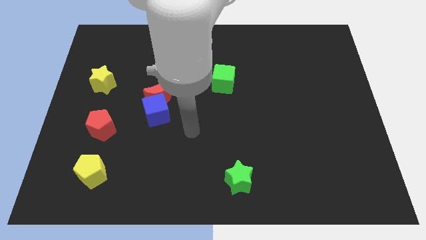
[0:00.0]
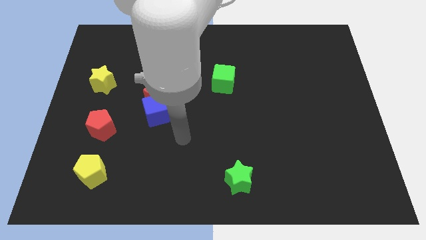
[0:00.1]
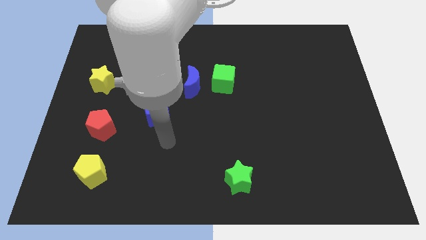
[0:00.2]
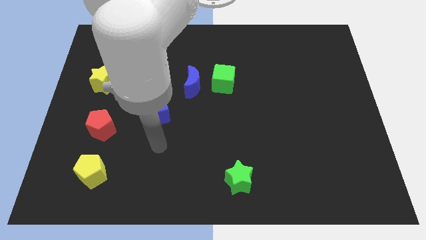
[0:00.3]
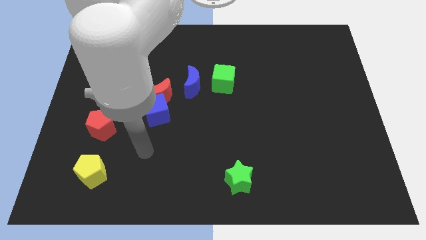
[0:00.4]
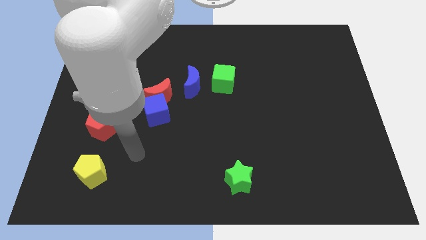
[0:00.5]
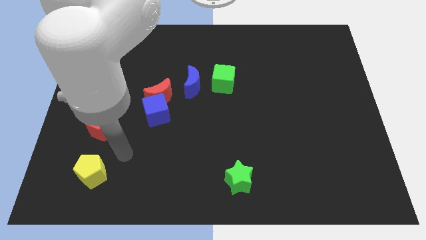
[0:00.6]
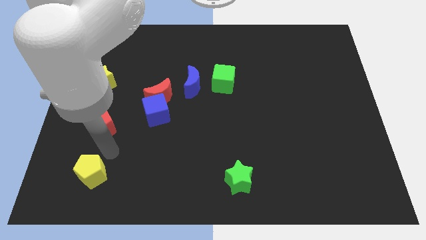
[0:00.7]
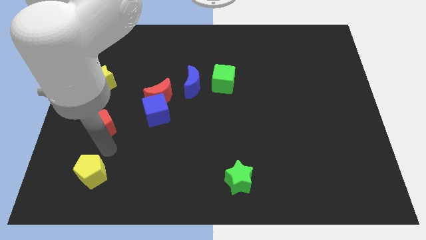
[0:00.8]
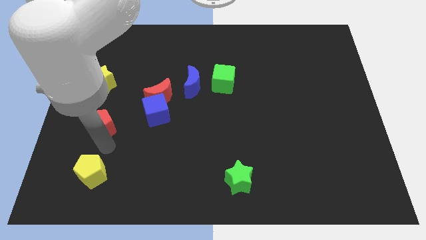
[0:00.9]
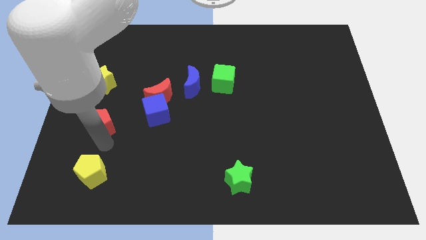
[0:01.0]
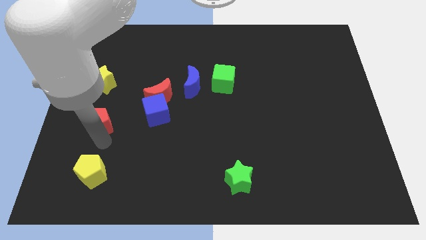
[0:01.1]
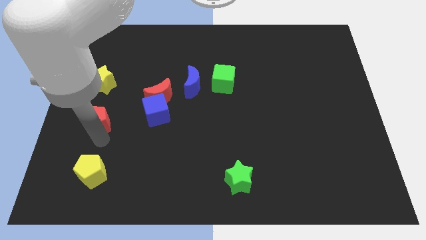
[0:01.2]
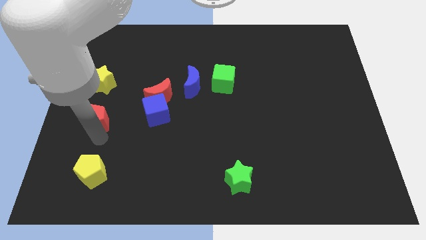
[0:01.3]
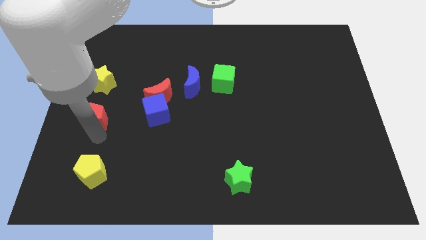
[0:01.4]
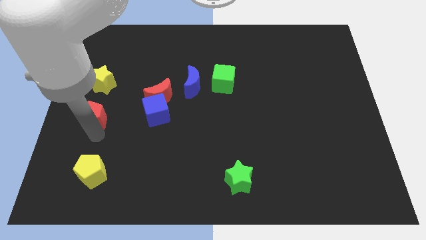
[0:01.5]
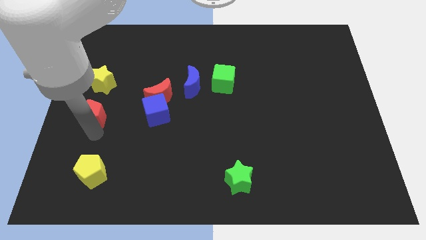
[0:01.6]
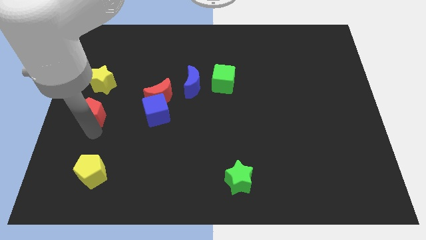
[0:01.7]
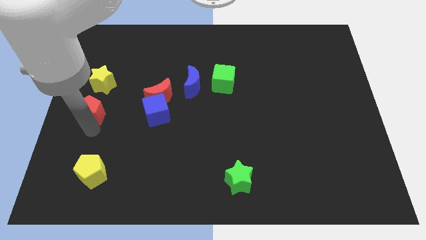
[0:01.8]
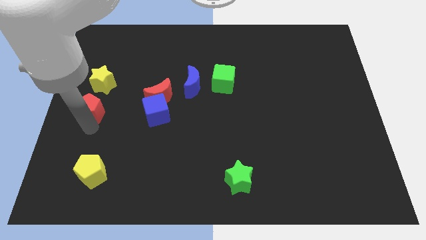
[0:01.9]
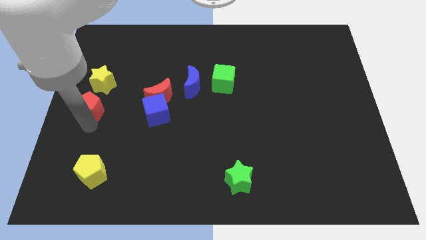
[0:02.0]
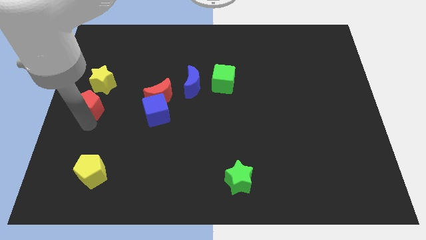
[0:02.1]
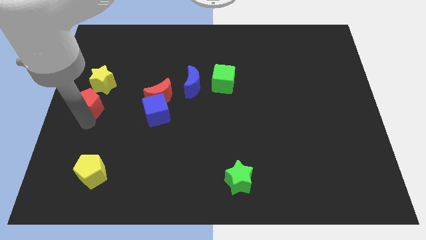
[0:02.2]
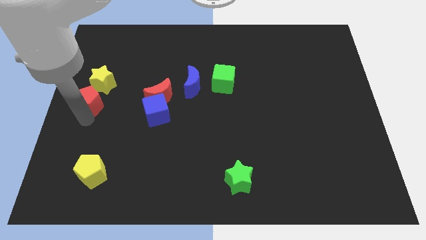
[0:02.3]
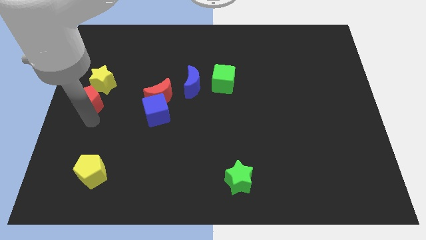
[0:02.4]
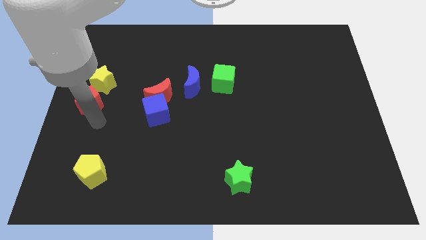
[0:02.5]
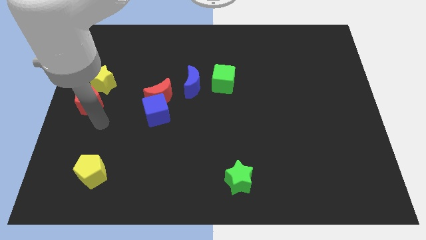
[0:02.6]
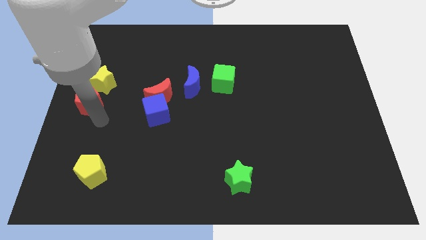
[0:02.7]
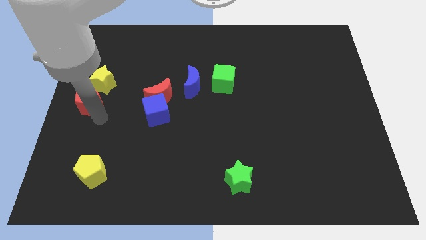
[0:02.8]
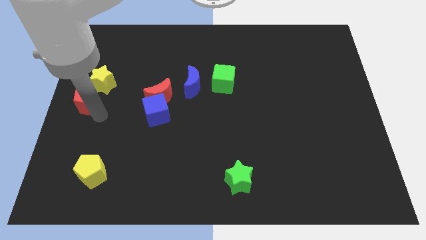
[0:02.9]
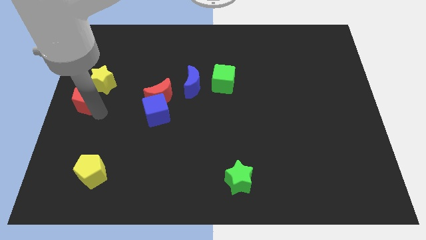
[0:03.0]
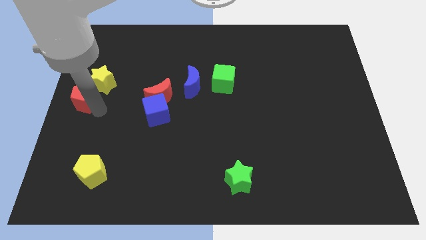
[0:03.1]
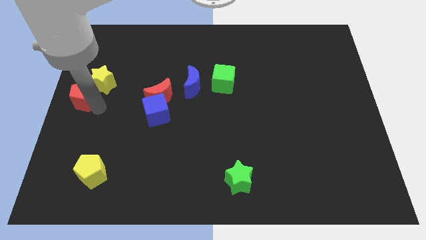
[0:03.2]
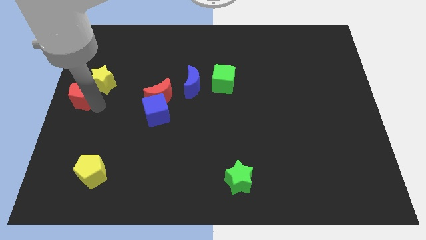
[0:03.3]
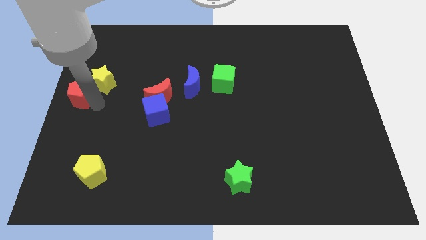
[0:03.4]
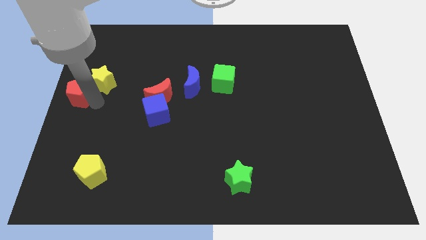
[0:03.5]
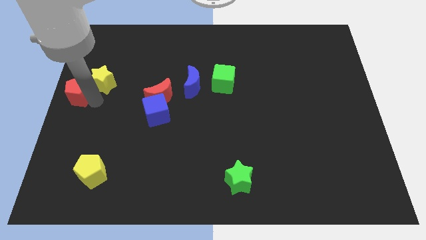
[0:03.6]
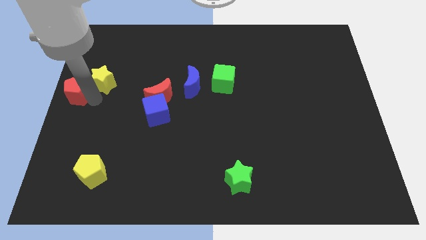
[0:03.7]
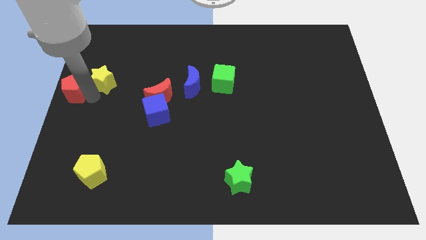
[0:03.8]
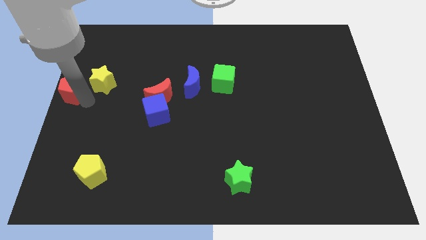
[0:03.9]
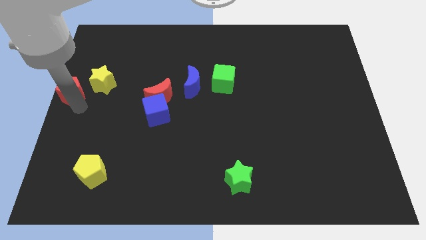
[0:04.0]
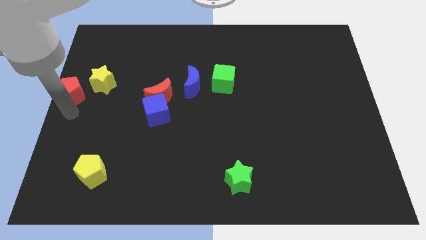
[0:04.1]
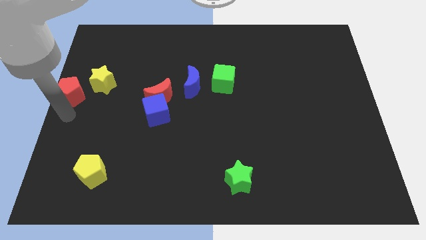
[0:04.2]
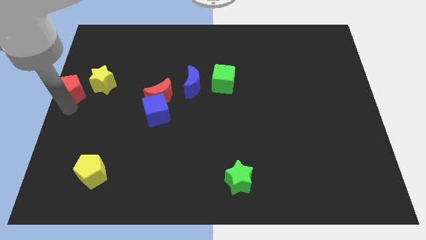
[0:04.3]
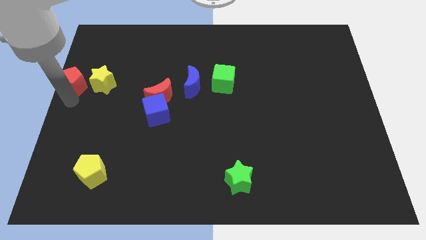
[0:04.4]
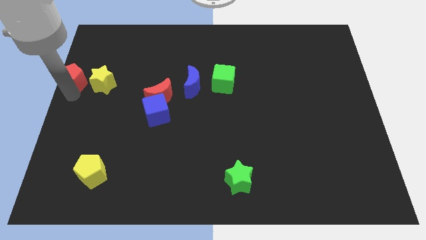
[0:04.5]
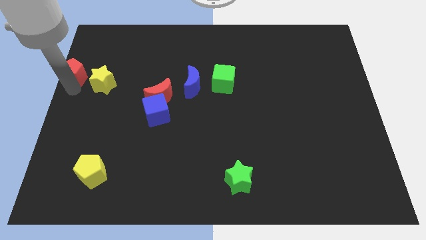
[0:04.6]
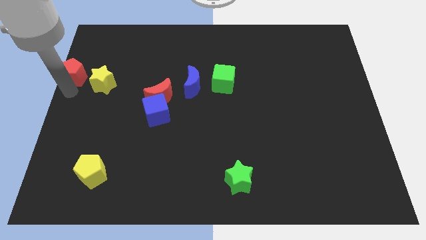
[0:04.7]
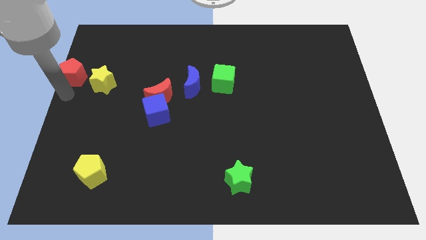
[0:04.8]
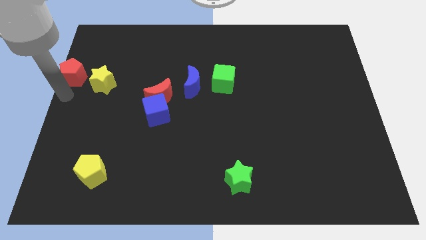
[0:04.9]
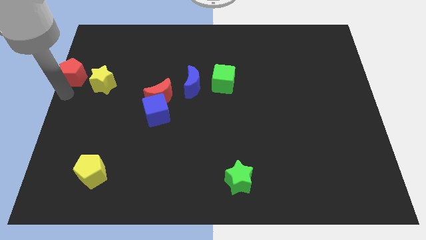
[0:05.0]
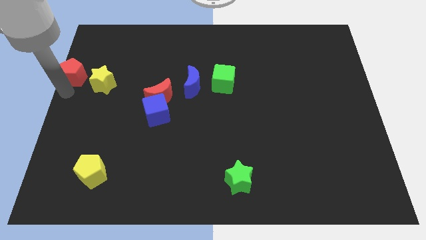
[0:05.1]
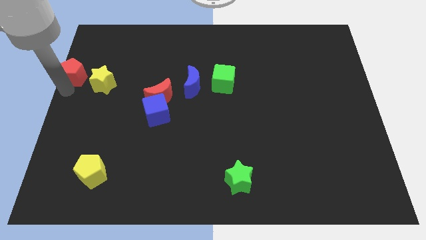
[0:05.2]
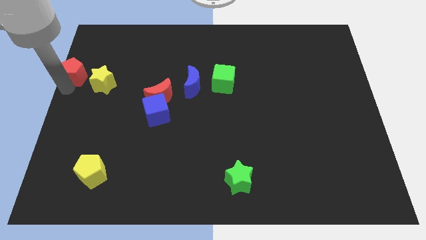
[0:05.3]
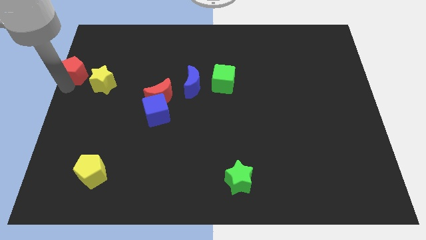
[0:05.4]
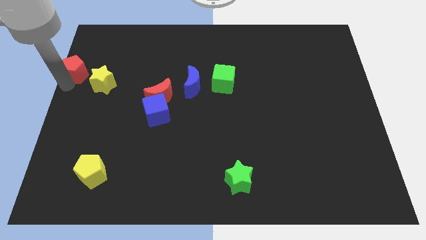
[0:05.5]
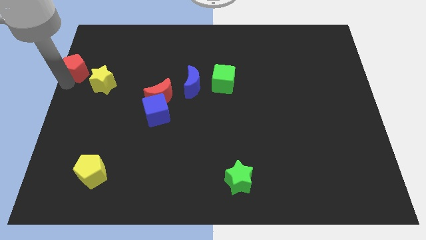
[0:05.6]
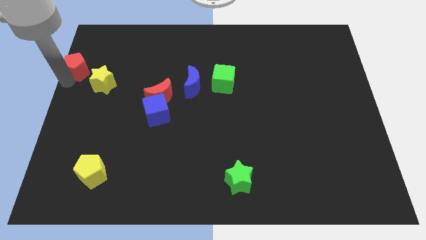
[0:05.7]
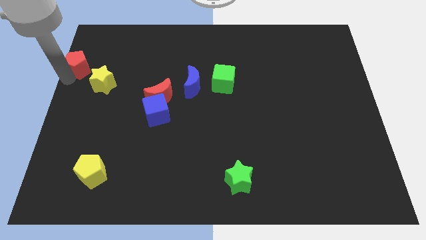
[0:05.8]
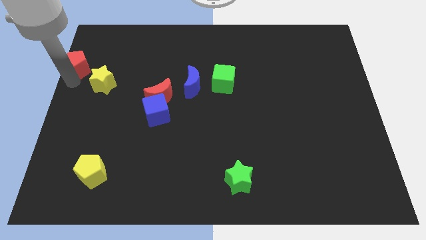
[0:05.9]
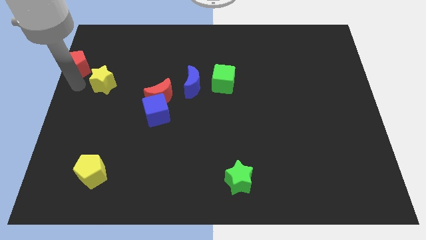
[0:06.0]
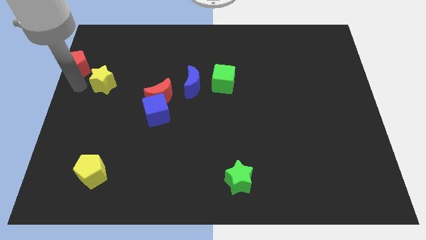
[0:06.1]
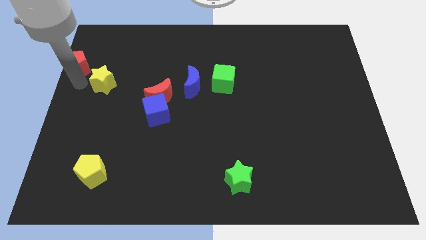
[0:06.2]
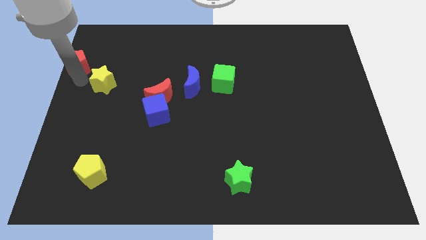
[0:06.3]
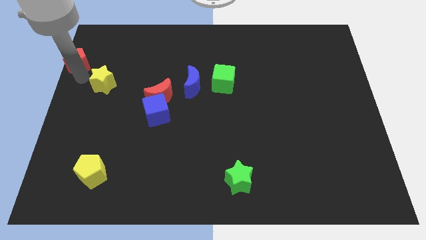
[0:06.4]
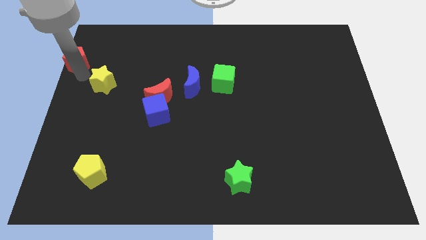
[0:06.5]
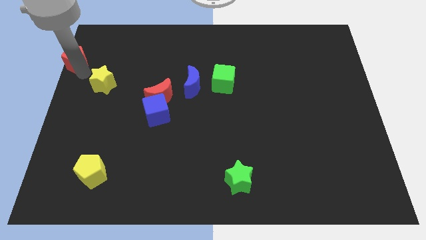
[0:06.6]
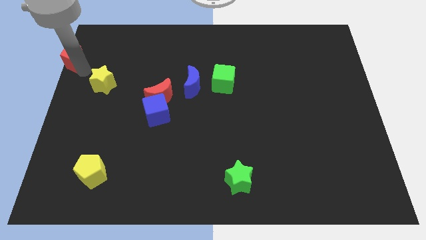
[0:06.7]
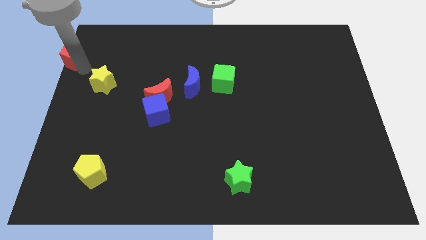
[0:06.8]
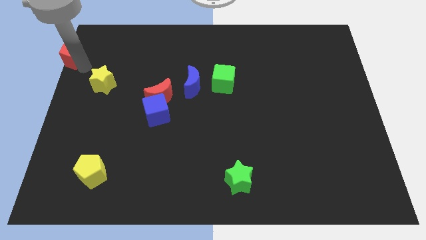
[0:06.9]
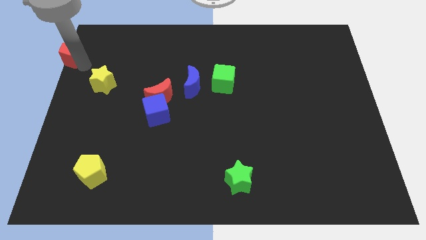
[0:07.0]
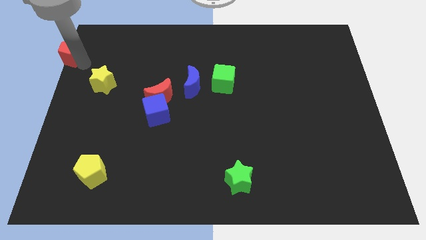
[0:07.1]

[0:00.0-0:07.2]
put the red pentagon to the top left of the board
